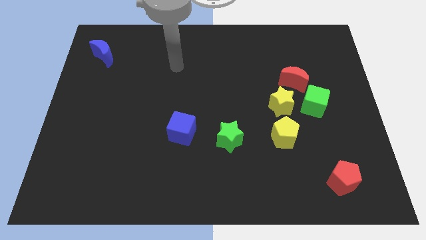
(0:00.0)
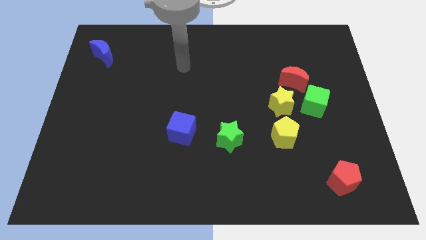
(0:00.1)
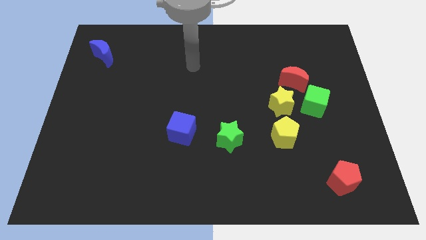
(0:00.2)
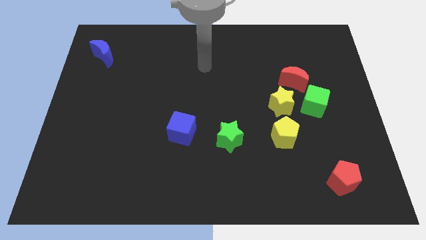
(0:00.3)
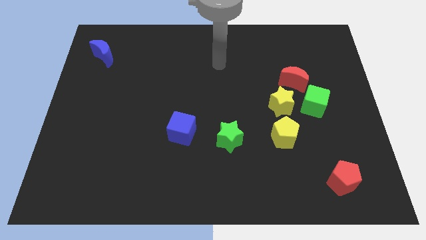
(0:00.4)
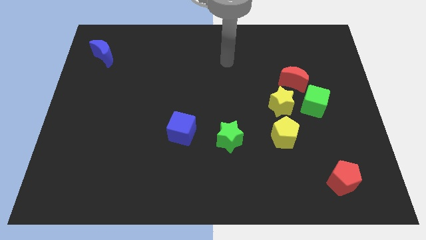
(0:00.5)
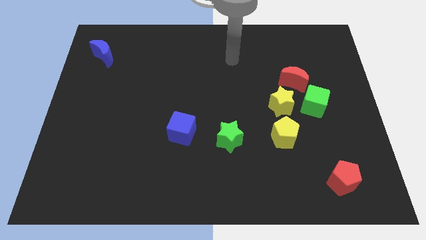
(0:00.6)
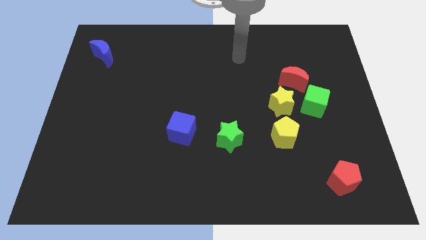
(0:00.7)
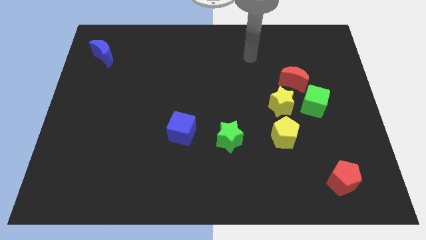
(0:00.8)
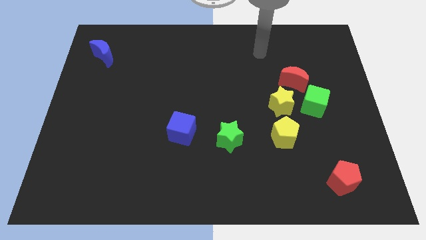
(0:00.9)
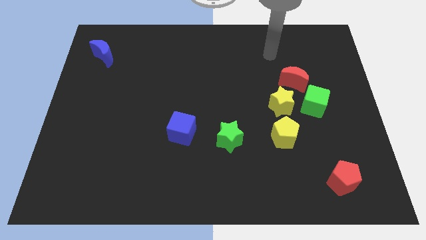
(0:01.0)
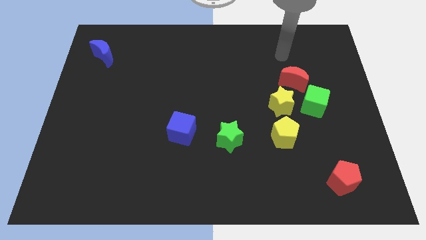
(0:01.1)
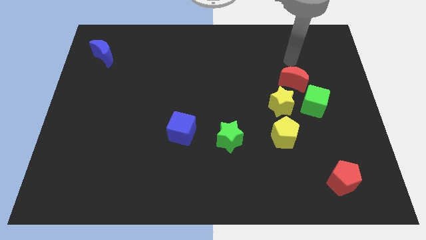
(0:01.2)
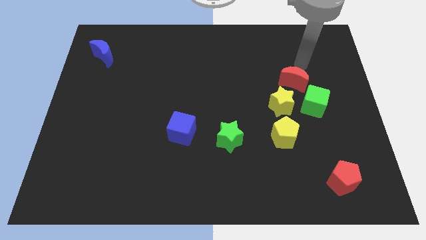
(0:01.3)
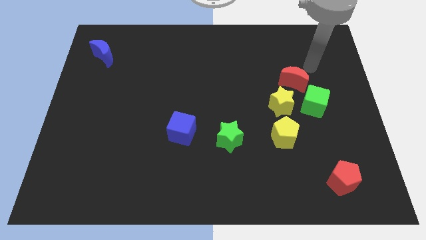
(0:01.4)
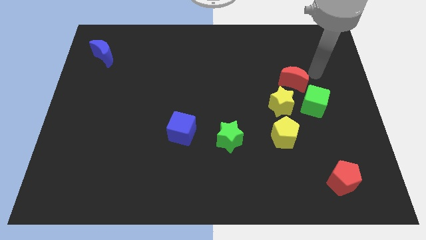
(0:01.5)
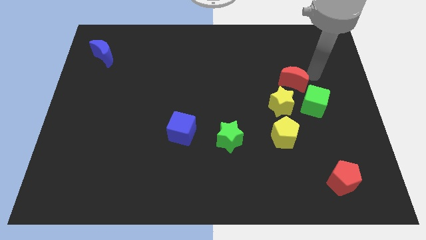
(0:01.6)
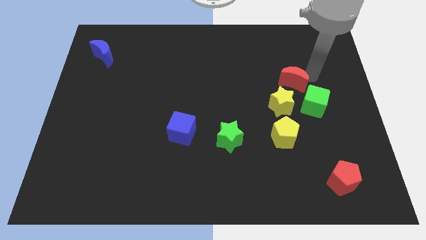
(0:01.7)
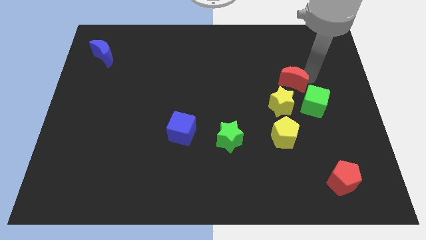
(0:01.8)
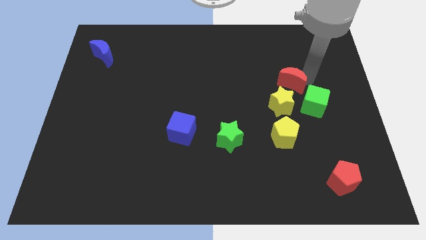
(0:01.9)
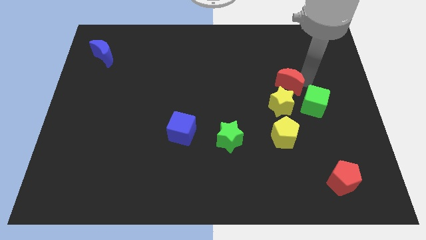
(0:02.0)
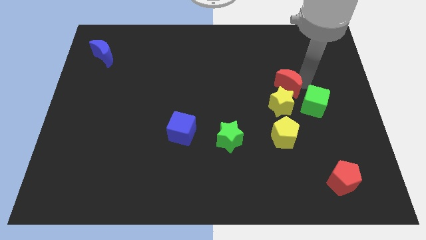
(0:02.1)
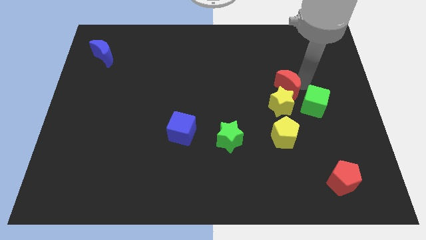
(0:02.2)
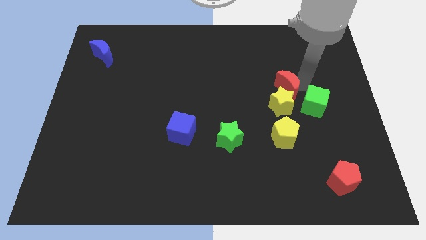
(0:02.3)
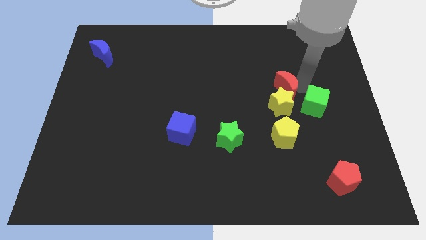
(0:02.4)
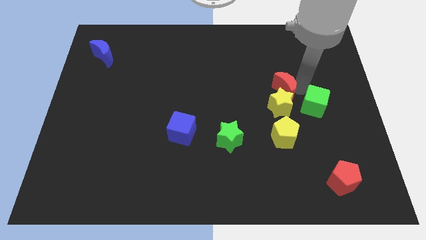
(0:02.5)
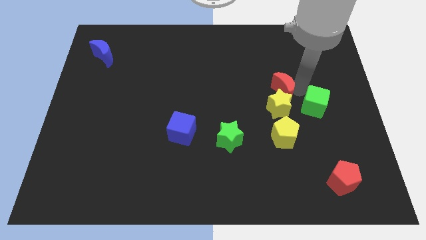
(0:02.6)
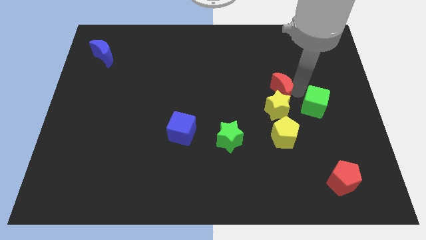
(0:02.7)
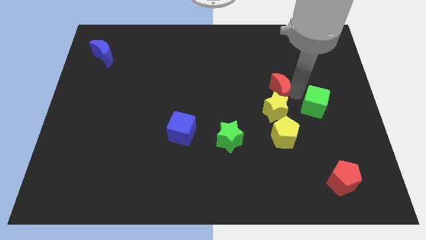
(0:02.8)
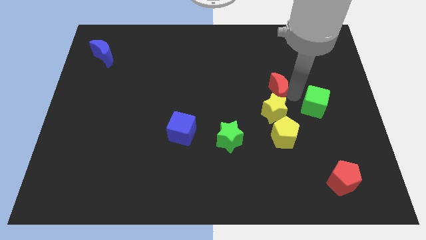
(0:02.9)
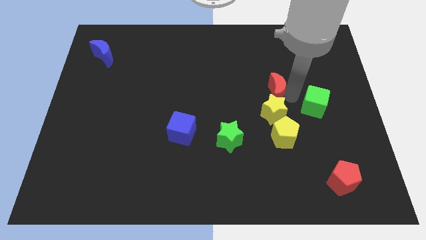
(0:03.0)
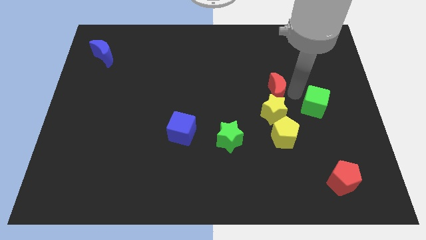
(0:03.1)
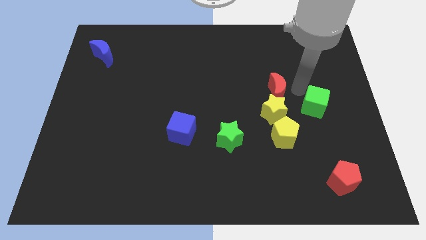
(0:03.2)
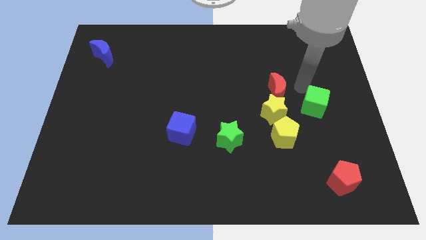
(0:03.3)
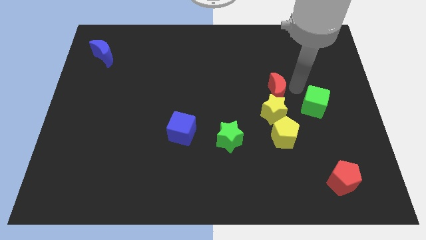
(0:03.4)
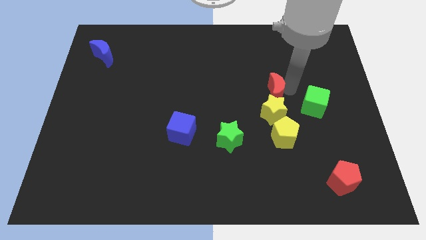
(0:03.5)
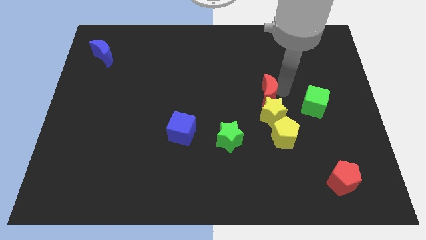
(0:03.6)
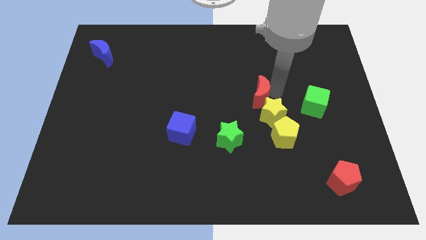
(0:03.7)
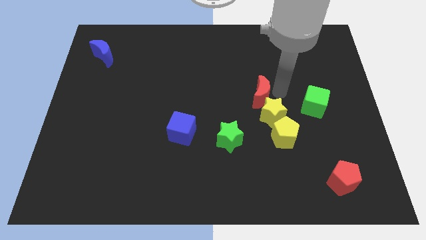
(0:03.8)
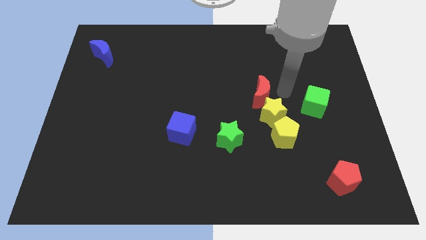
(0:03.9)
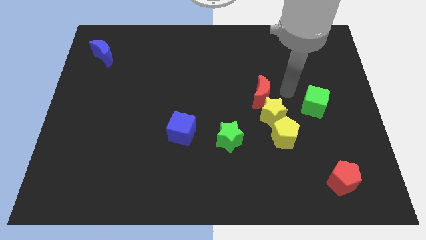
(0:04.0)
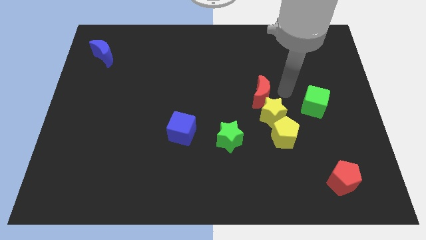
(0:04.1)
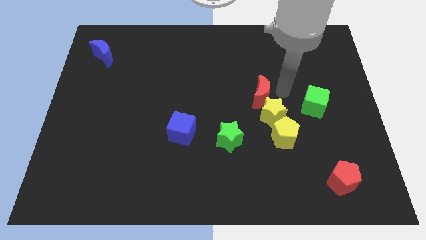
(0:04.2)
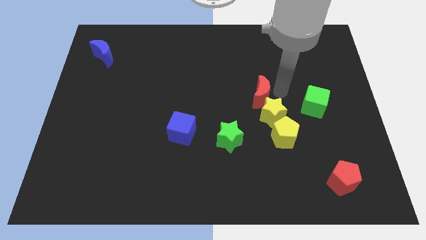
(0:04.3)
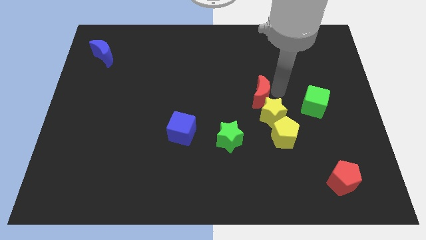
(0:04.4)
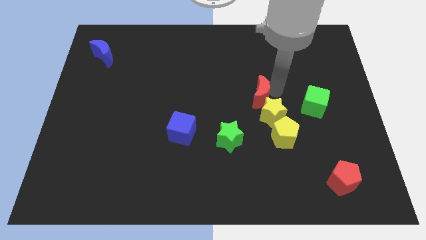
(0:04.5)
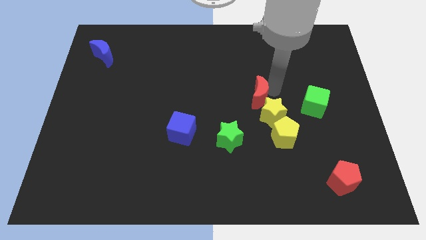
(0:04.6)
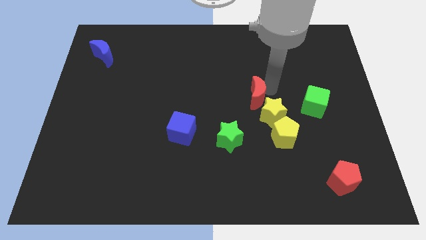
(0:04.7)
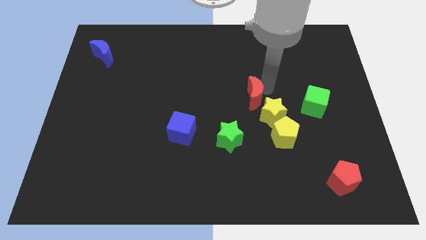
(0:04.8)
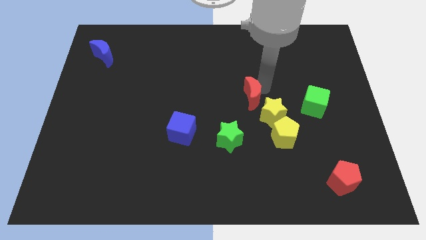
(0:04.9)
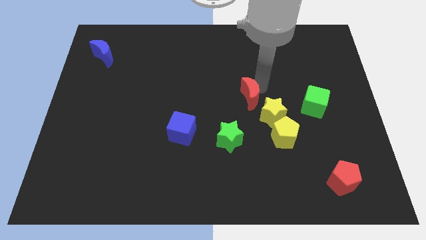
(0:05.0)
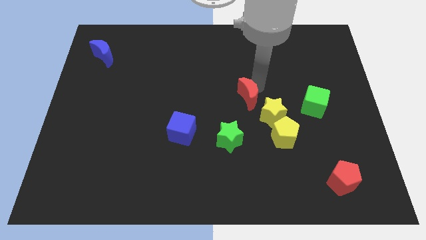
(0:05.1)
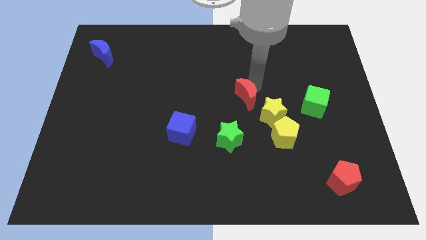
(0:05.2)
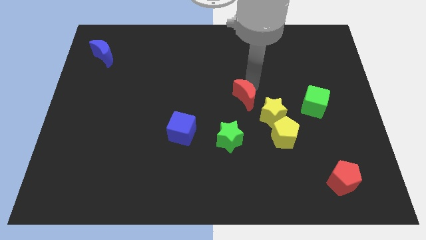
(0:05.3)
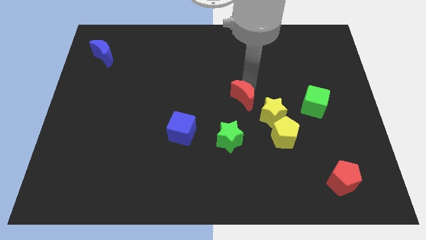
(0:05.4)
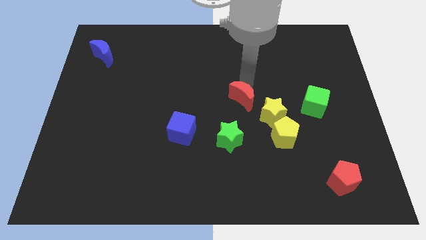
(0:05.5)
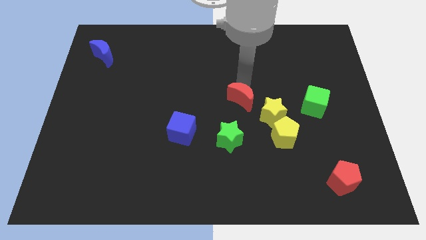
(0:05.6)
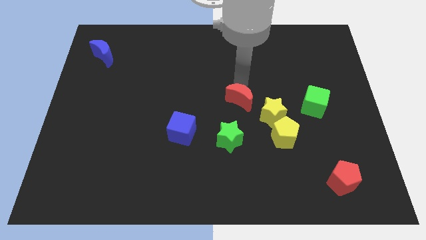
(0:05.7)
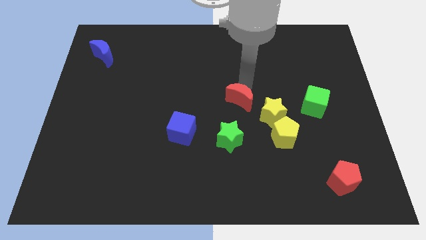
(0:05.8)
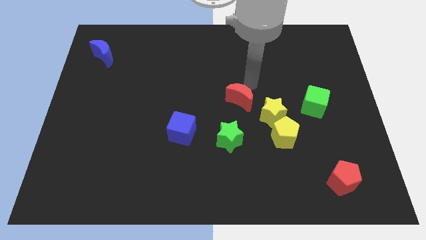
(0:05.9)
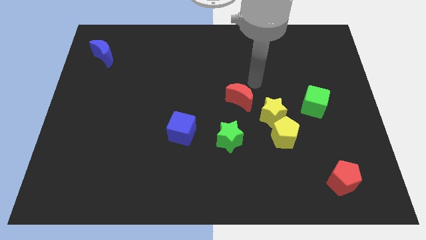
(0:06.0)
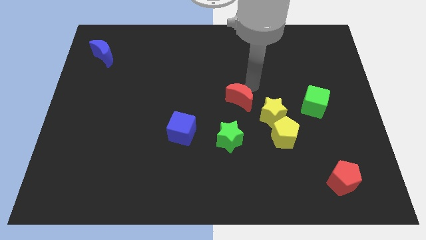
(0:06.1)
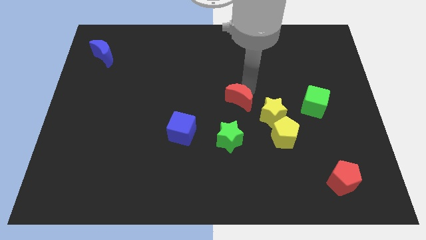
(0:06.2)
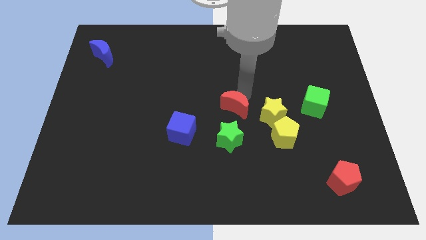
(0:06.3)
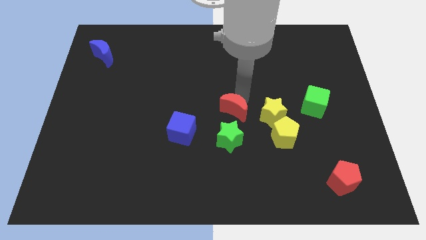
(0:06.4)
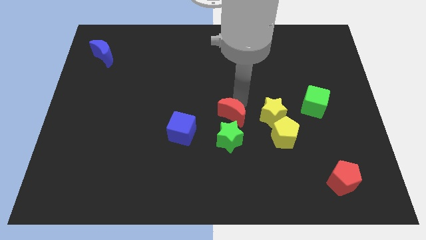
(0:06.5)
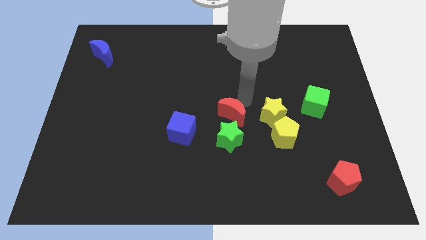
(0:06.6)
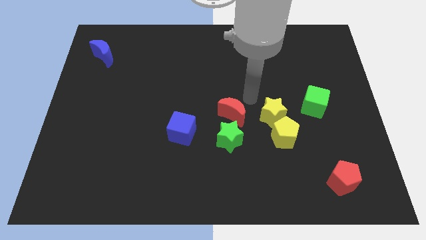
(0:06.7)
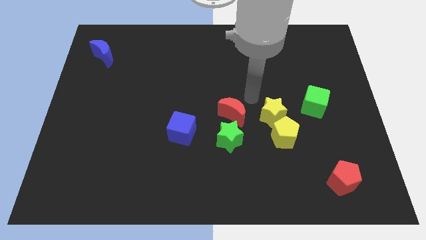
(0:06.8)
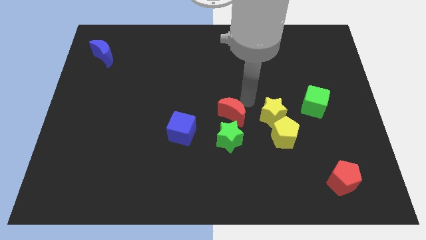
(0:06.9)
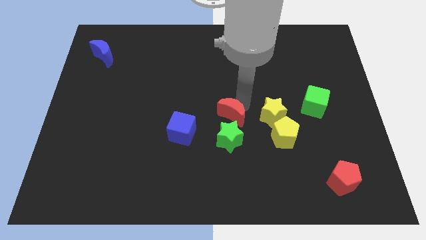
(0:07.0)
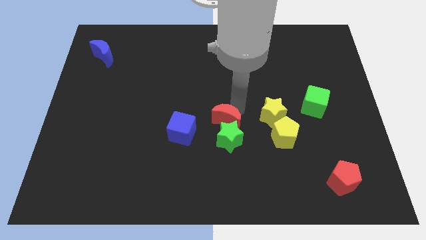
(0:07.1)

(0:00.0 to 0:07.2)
slide the red moon downwards and left diagonally

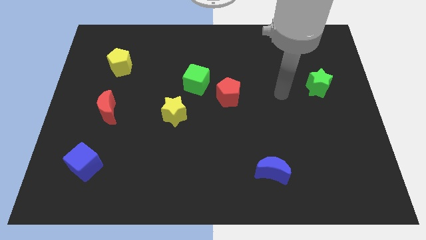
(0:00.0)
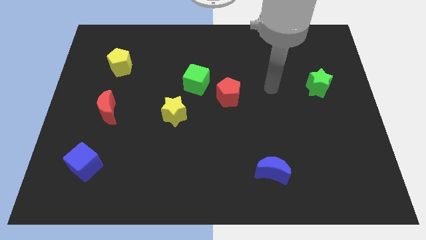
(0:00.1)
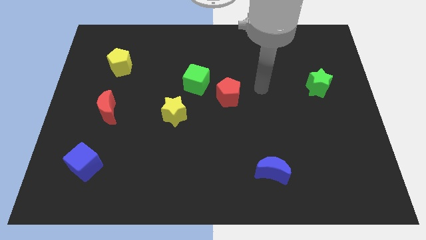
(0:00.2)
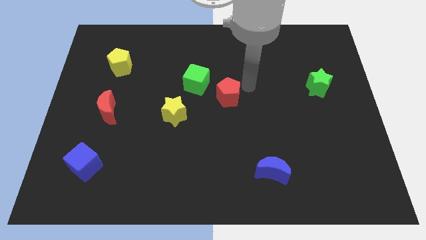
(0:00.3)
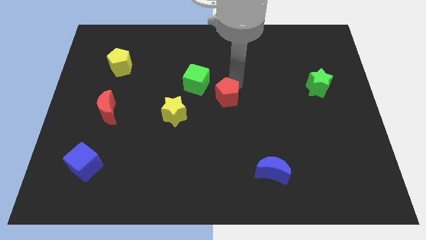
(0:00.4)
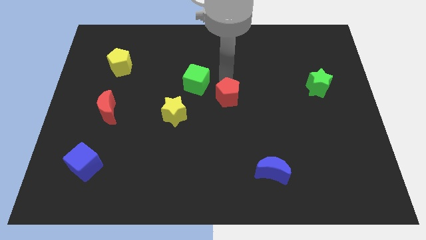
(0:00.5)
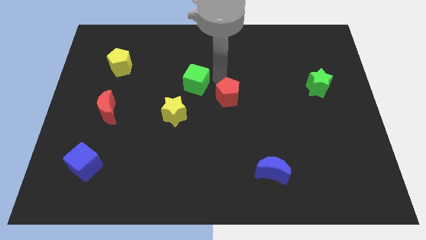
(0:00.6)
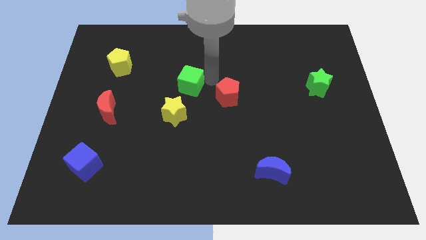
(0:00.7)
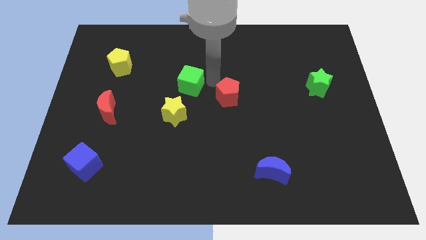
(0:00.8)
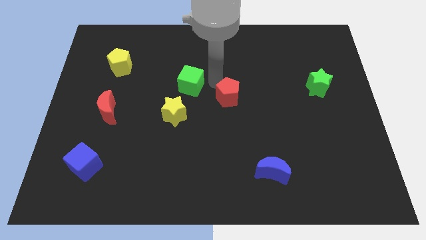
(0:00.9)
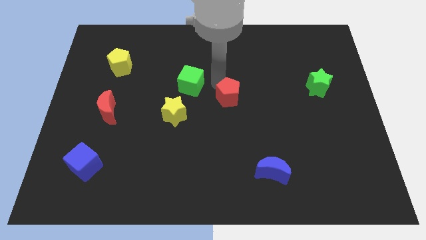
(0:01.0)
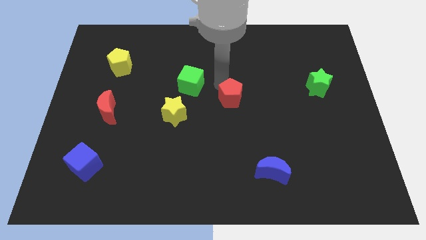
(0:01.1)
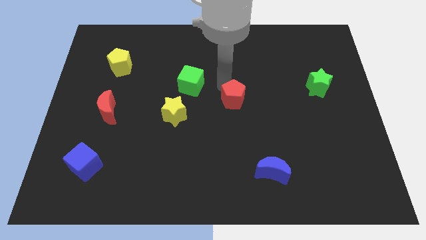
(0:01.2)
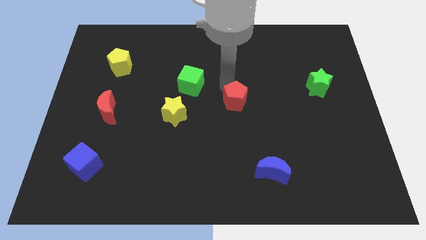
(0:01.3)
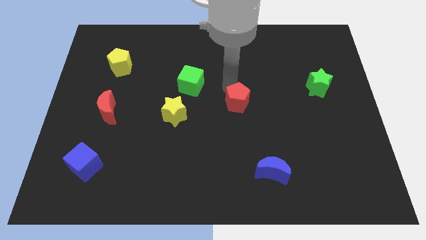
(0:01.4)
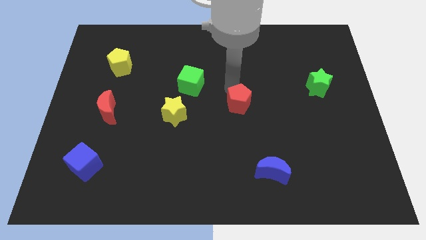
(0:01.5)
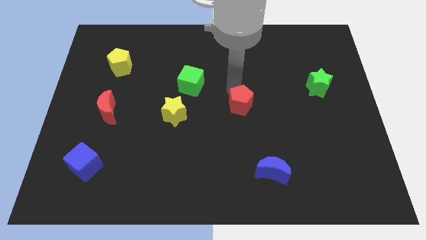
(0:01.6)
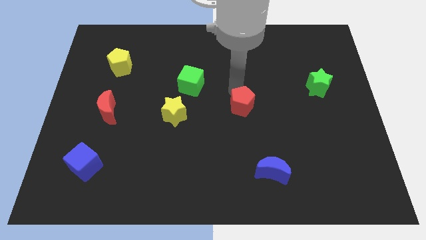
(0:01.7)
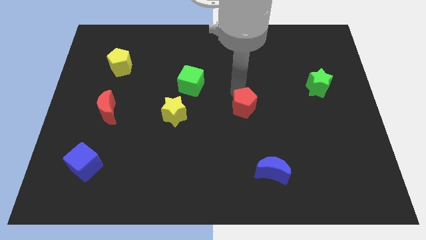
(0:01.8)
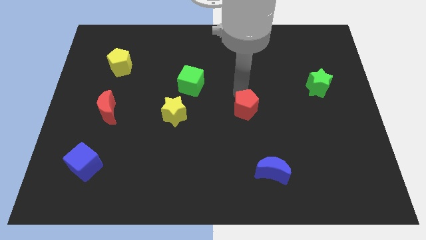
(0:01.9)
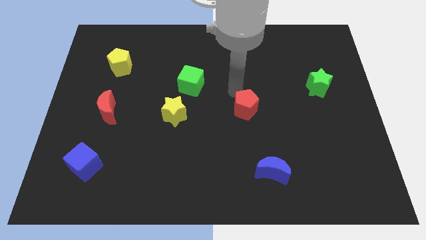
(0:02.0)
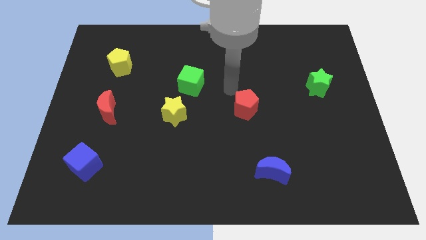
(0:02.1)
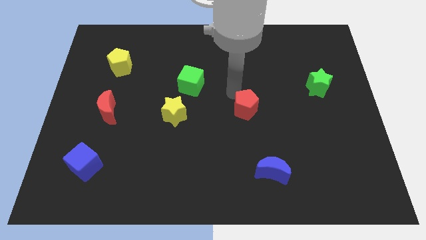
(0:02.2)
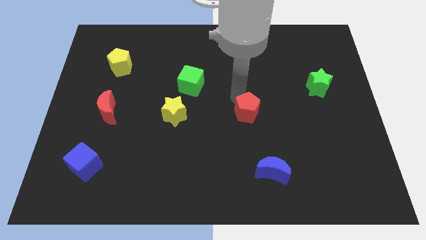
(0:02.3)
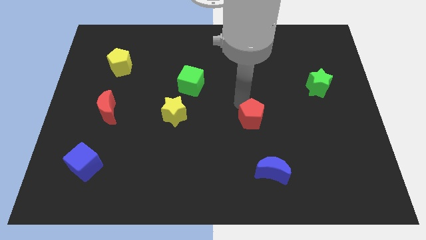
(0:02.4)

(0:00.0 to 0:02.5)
slightly move the red pentagon diagonally downwards and right
